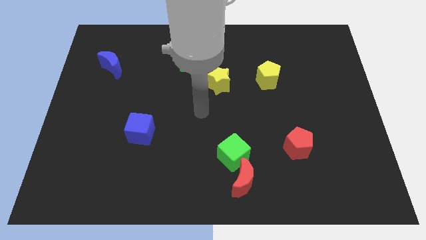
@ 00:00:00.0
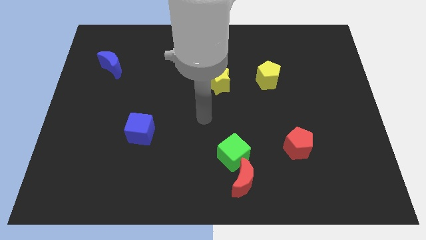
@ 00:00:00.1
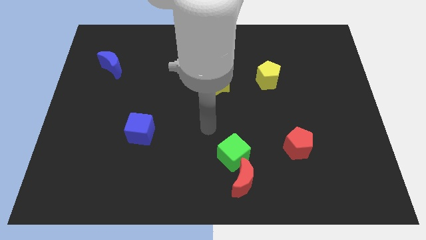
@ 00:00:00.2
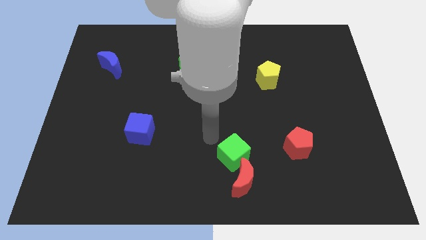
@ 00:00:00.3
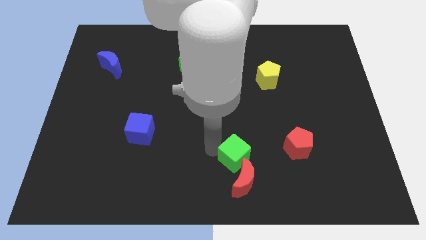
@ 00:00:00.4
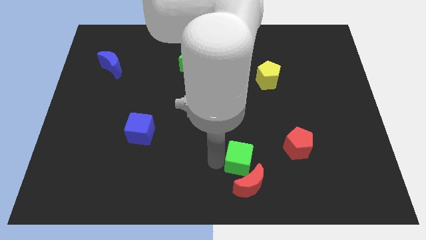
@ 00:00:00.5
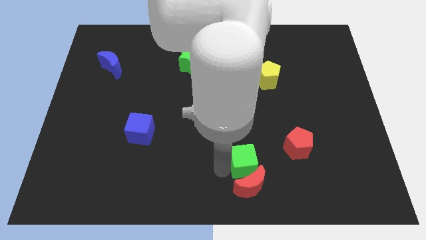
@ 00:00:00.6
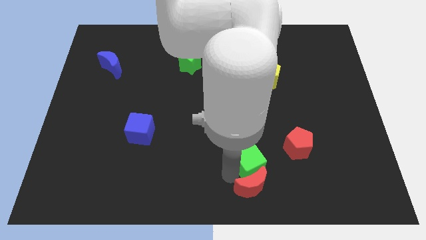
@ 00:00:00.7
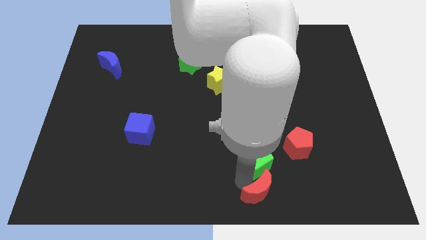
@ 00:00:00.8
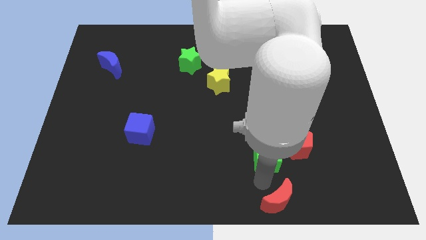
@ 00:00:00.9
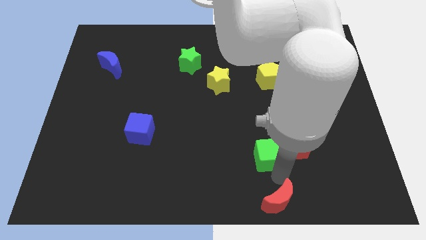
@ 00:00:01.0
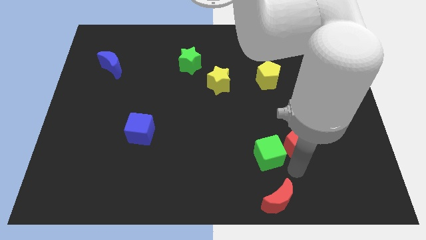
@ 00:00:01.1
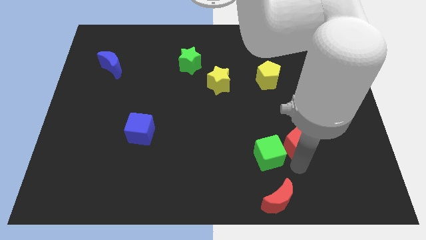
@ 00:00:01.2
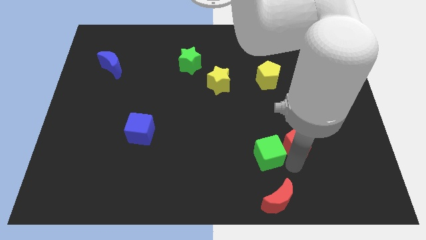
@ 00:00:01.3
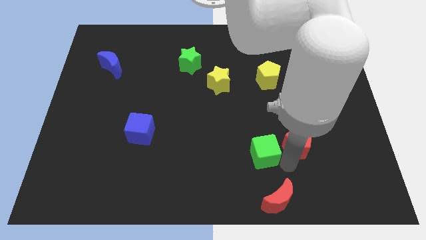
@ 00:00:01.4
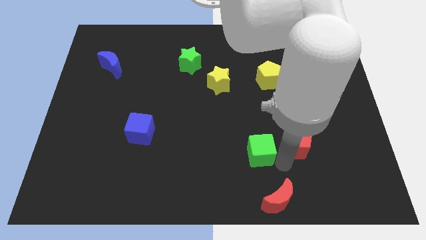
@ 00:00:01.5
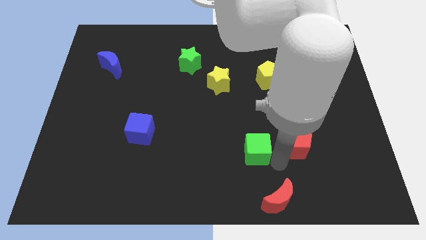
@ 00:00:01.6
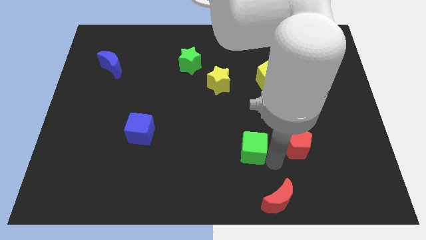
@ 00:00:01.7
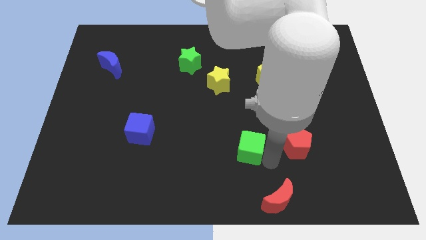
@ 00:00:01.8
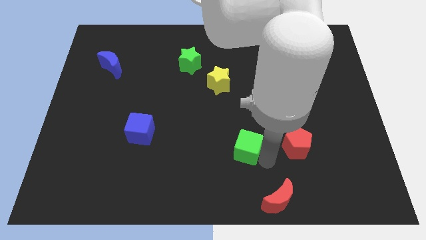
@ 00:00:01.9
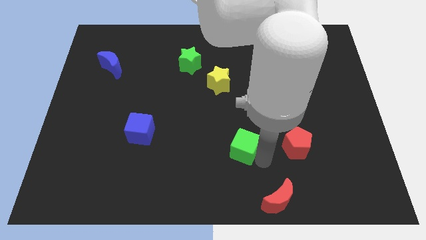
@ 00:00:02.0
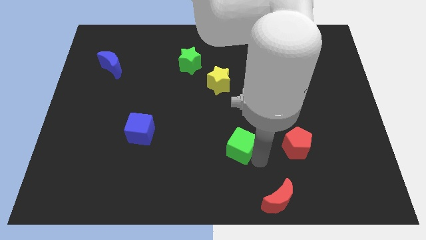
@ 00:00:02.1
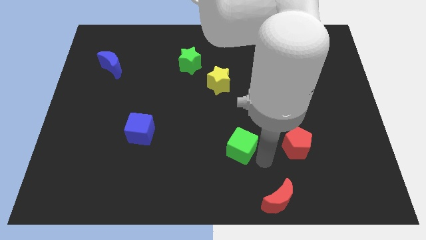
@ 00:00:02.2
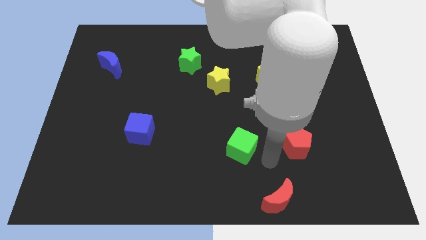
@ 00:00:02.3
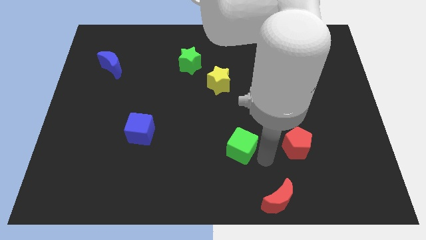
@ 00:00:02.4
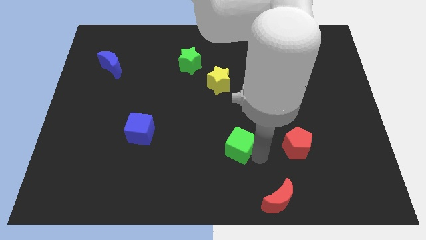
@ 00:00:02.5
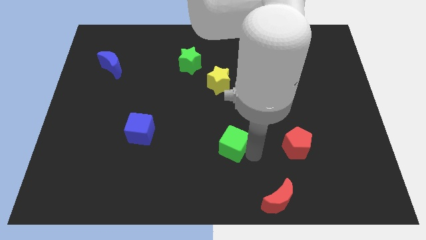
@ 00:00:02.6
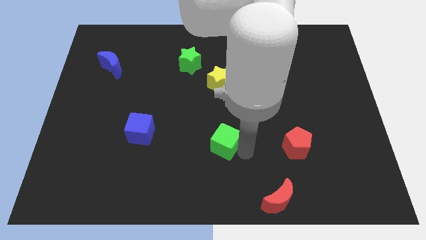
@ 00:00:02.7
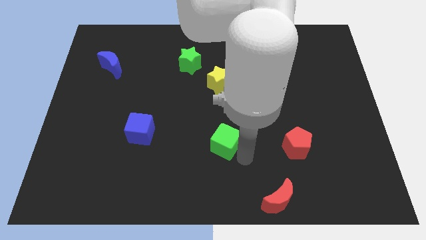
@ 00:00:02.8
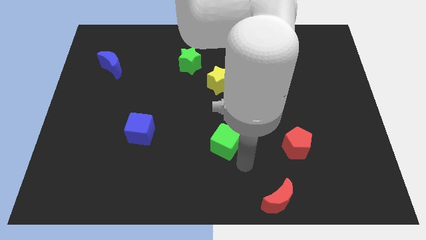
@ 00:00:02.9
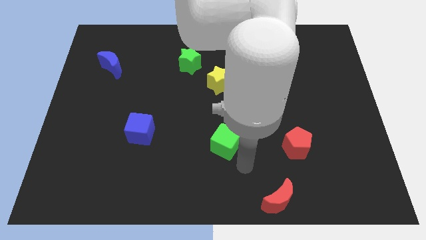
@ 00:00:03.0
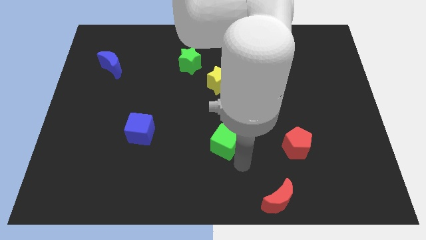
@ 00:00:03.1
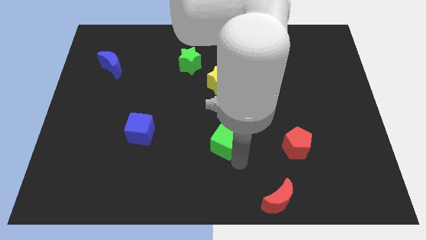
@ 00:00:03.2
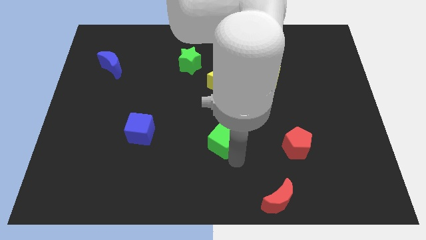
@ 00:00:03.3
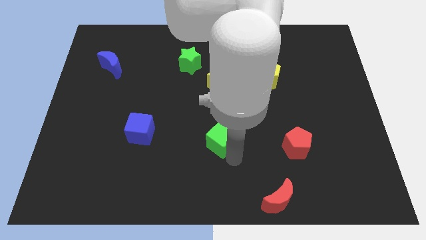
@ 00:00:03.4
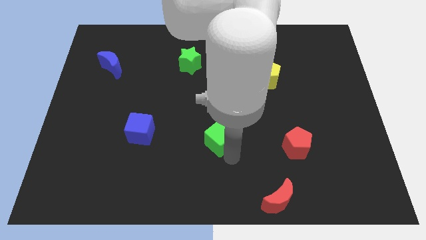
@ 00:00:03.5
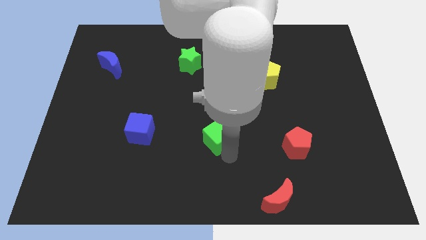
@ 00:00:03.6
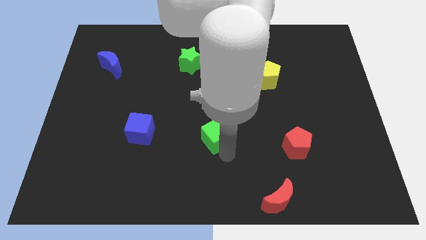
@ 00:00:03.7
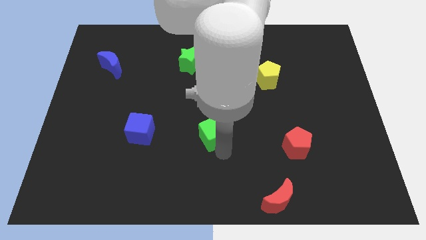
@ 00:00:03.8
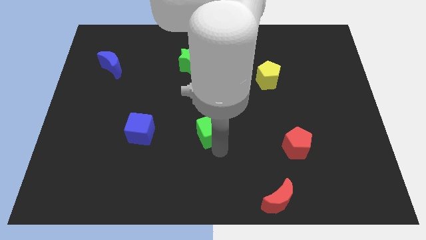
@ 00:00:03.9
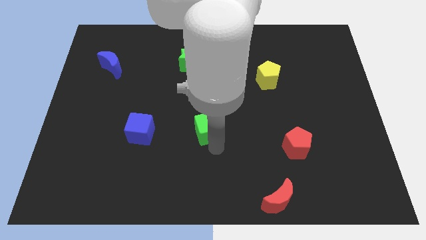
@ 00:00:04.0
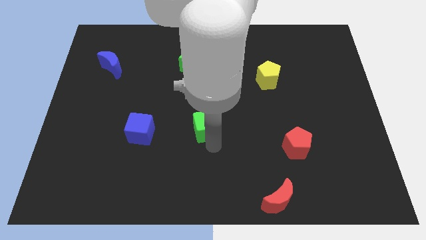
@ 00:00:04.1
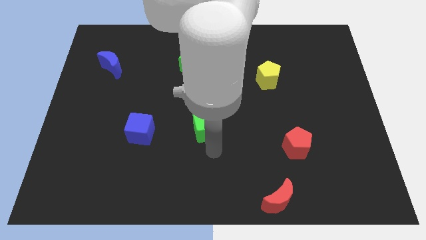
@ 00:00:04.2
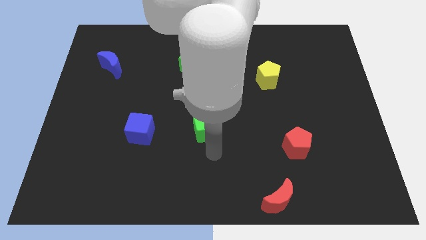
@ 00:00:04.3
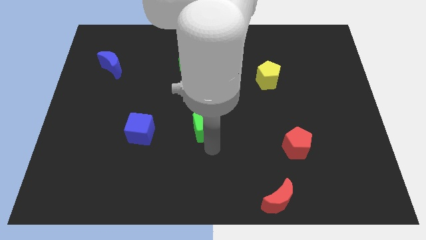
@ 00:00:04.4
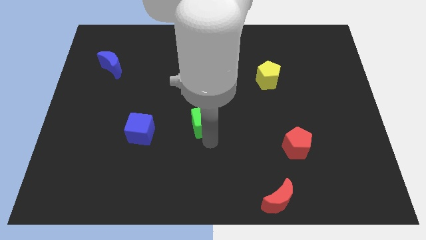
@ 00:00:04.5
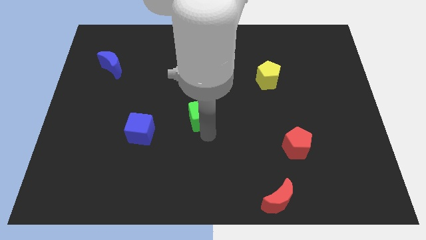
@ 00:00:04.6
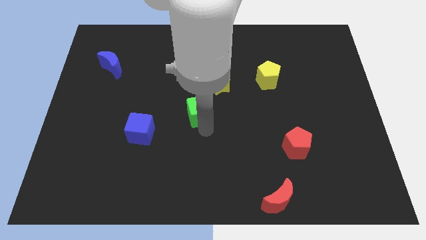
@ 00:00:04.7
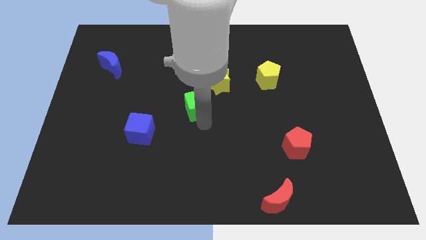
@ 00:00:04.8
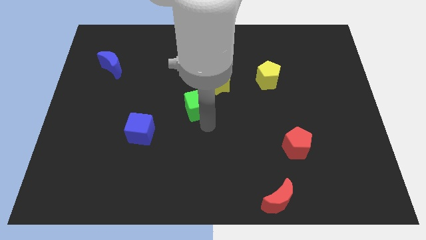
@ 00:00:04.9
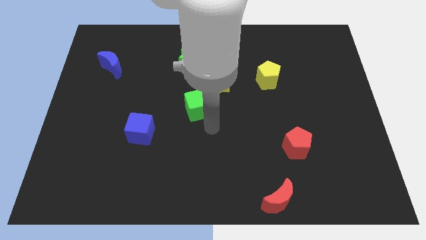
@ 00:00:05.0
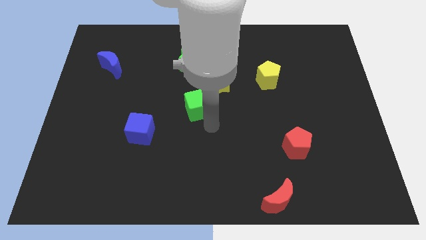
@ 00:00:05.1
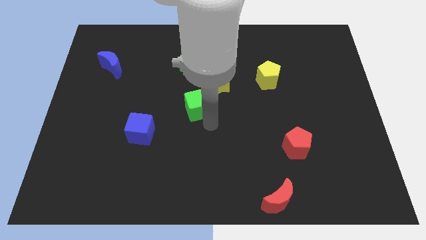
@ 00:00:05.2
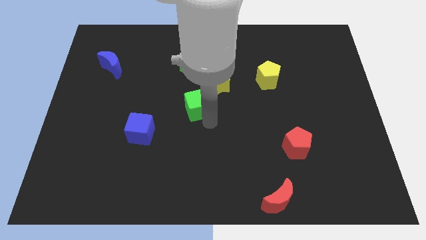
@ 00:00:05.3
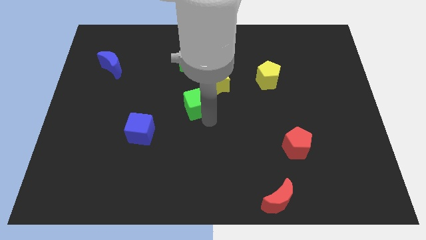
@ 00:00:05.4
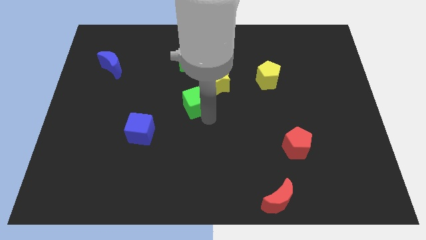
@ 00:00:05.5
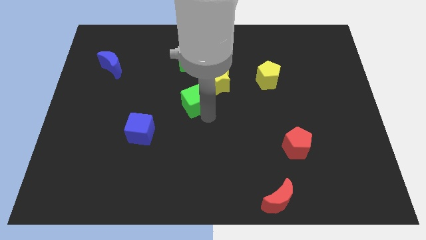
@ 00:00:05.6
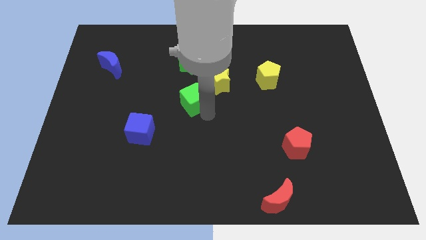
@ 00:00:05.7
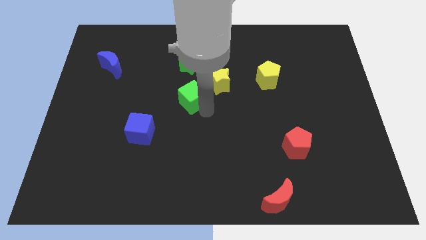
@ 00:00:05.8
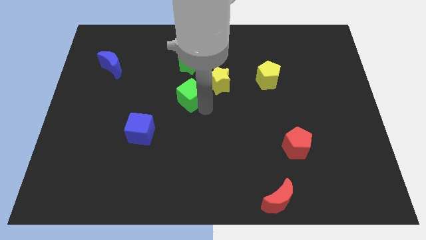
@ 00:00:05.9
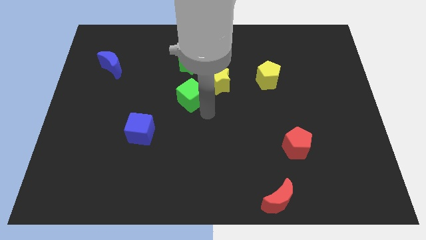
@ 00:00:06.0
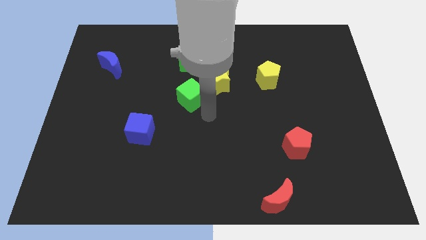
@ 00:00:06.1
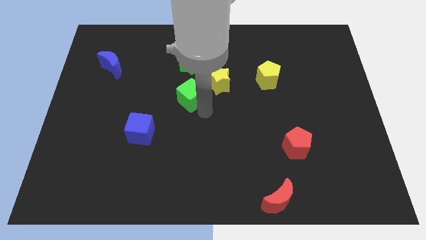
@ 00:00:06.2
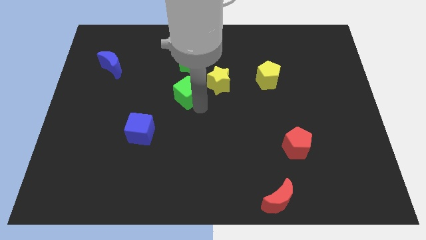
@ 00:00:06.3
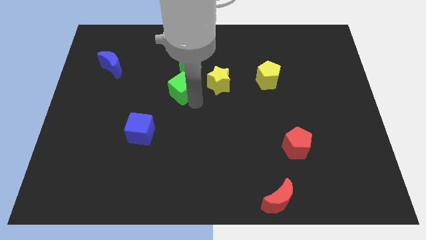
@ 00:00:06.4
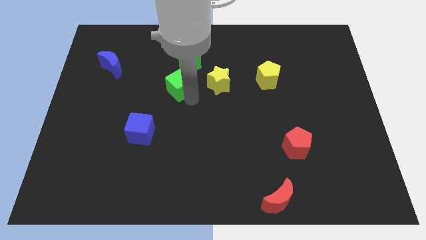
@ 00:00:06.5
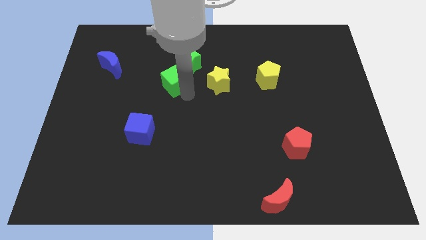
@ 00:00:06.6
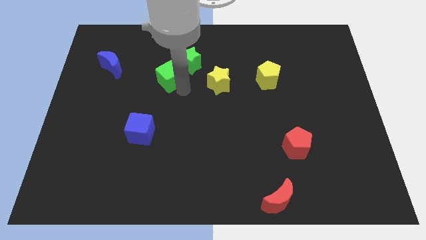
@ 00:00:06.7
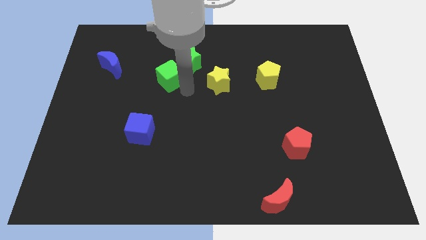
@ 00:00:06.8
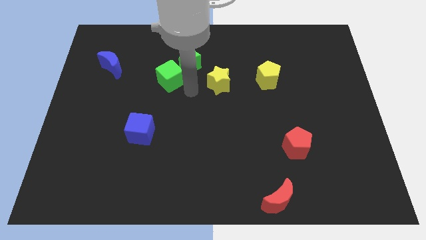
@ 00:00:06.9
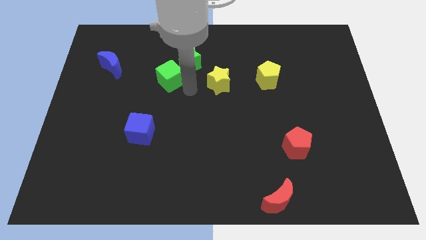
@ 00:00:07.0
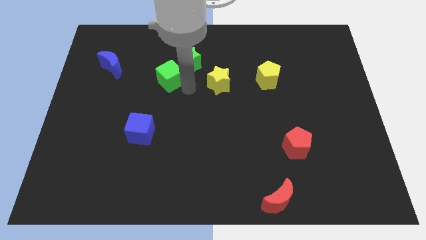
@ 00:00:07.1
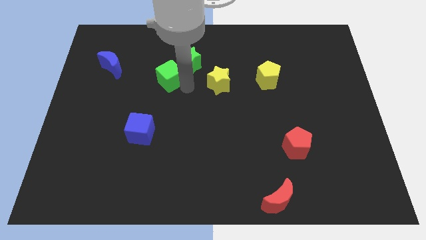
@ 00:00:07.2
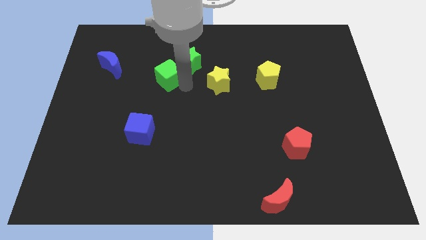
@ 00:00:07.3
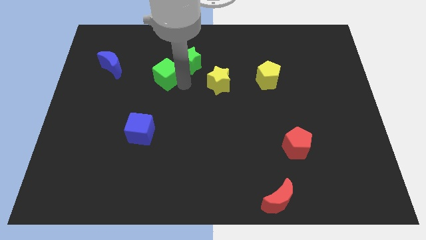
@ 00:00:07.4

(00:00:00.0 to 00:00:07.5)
move the green cube to the left of the green star

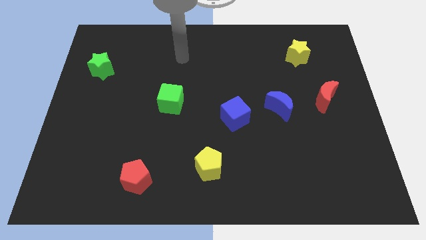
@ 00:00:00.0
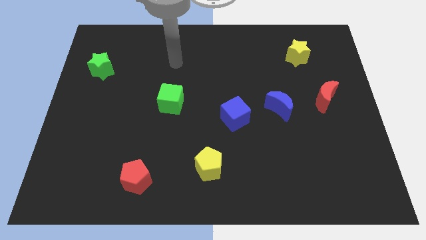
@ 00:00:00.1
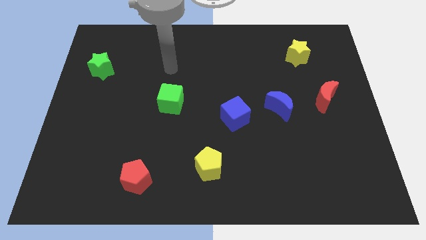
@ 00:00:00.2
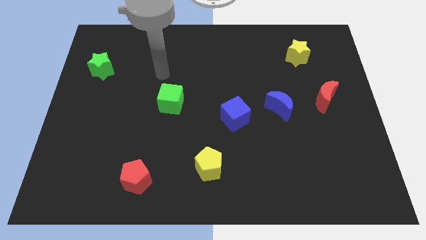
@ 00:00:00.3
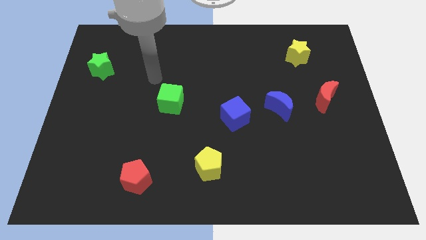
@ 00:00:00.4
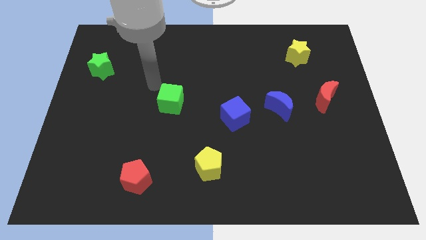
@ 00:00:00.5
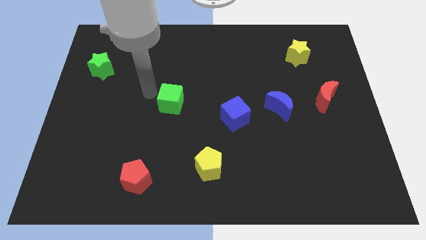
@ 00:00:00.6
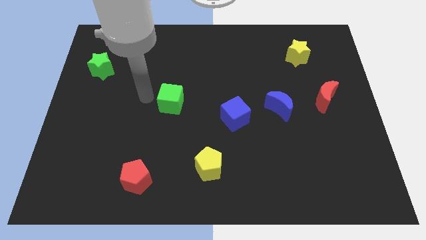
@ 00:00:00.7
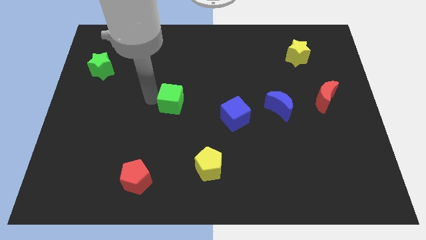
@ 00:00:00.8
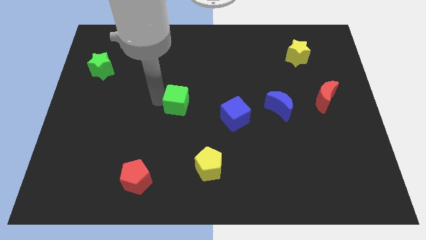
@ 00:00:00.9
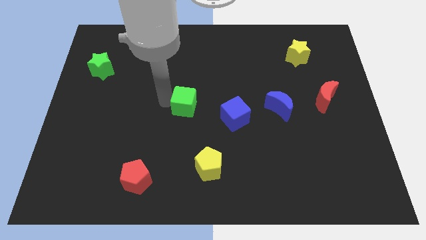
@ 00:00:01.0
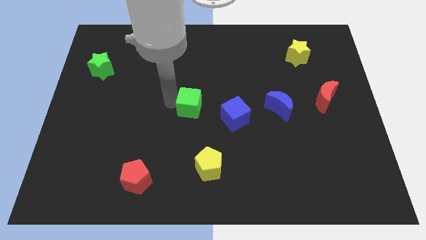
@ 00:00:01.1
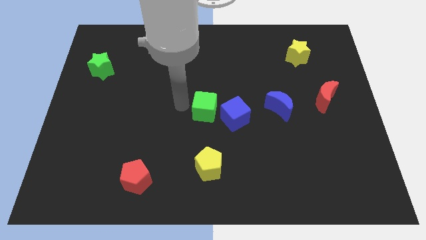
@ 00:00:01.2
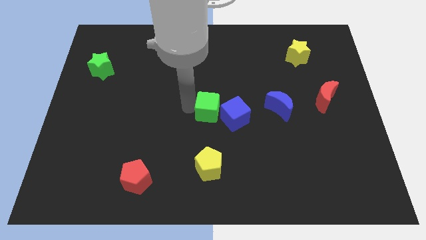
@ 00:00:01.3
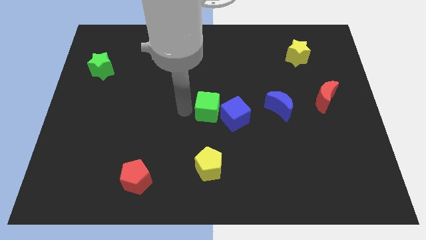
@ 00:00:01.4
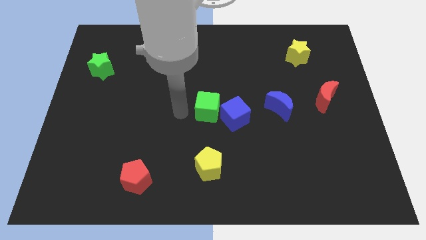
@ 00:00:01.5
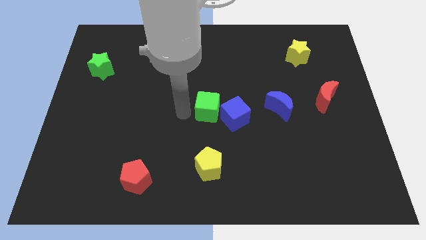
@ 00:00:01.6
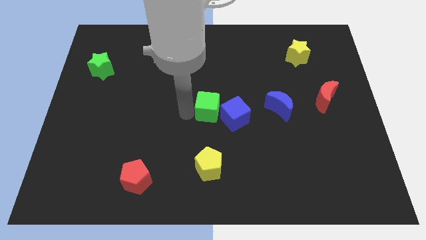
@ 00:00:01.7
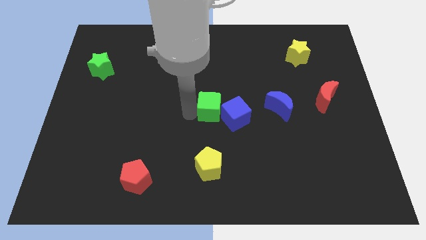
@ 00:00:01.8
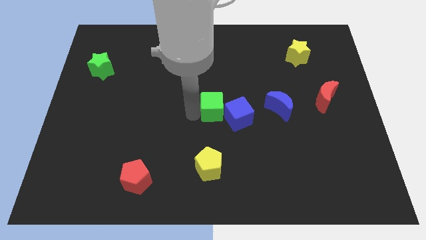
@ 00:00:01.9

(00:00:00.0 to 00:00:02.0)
move the green cube to the left side of the blue moon
